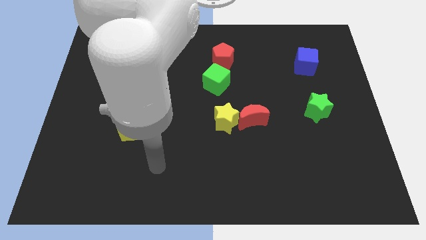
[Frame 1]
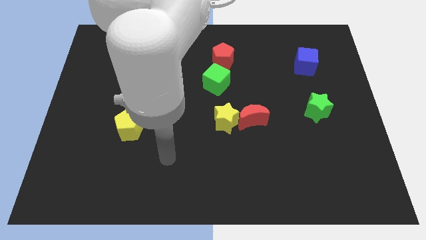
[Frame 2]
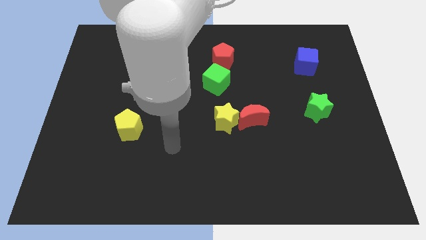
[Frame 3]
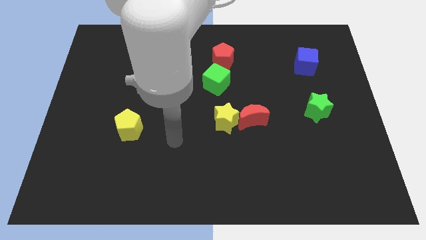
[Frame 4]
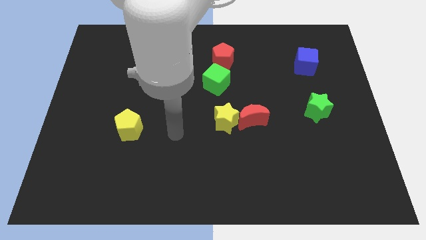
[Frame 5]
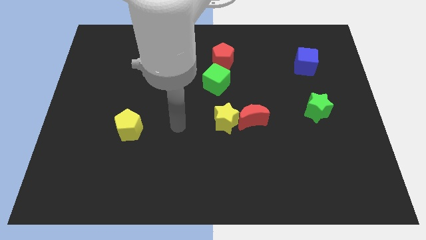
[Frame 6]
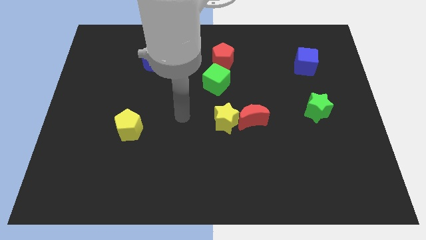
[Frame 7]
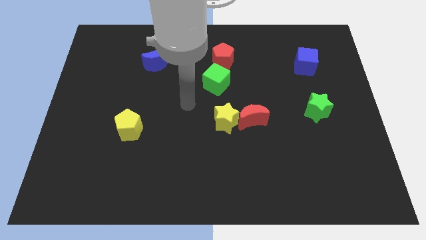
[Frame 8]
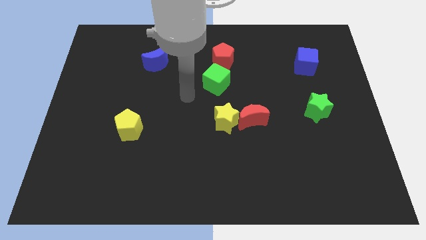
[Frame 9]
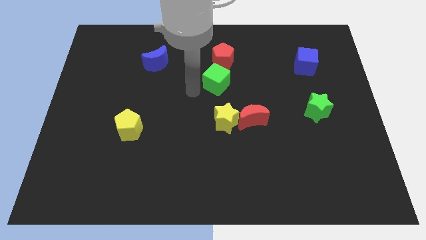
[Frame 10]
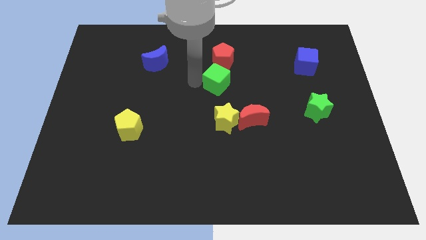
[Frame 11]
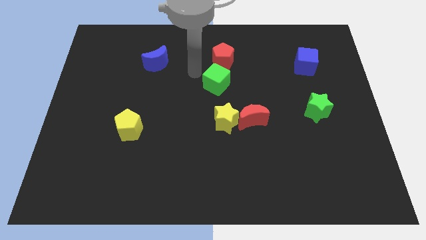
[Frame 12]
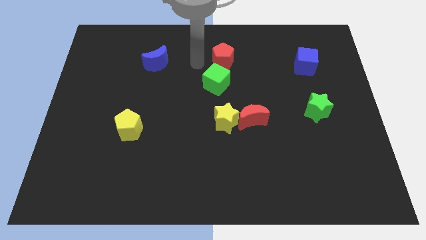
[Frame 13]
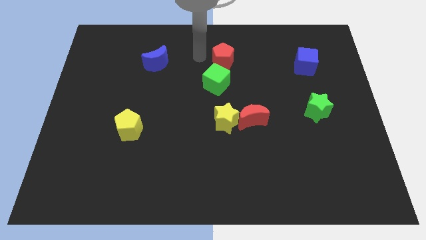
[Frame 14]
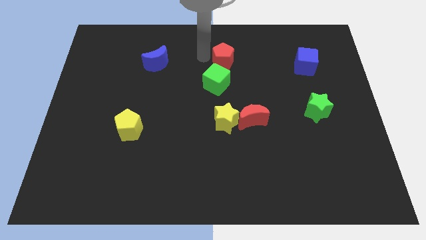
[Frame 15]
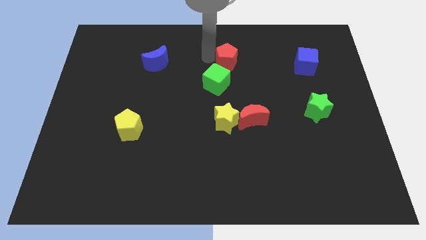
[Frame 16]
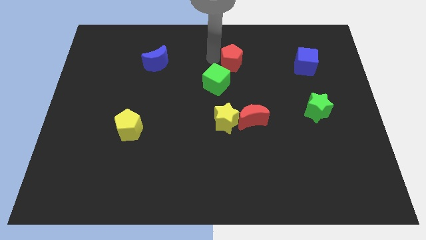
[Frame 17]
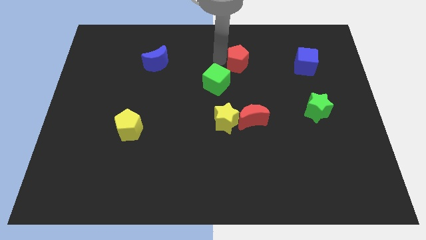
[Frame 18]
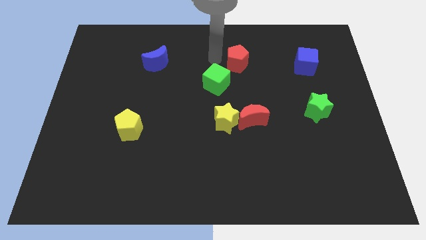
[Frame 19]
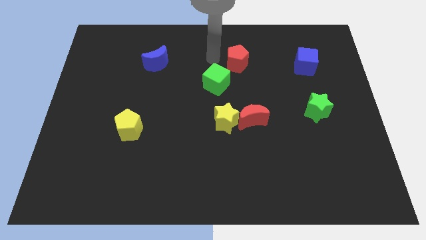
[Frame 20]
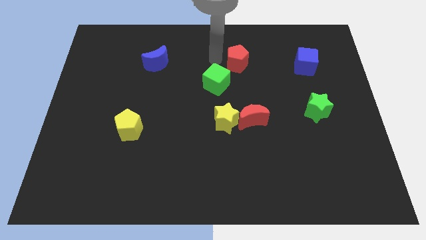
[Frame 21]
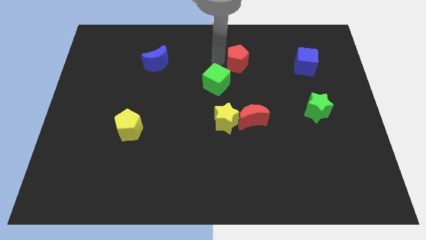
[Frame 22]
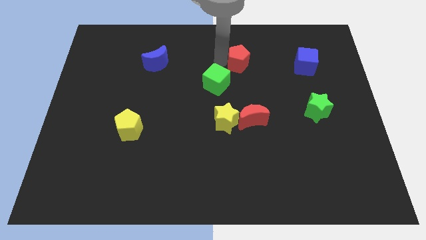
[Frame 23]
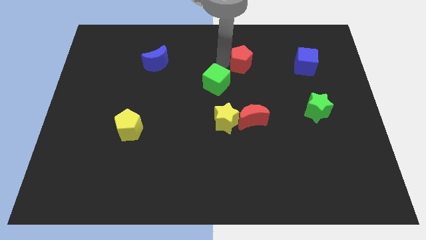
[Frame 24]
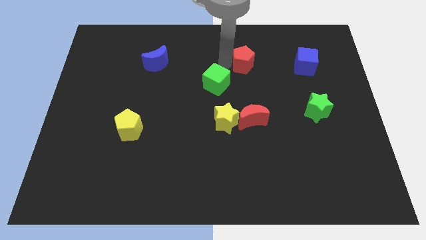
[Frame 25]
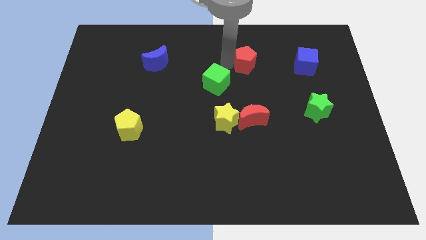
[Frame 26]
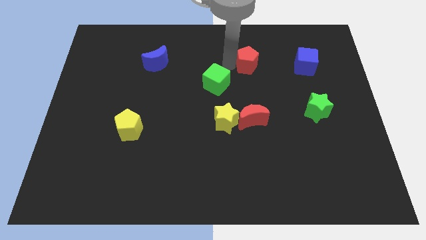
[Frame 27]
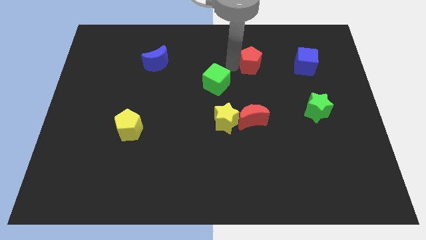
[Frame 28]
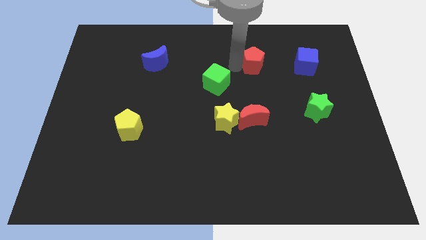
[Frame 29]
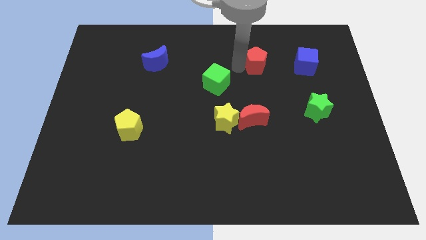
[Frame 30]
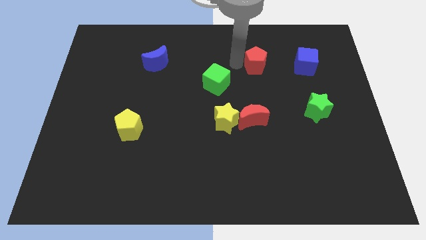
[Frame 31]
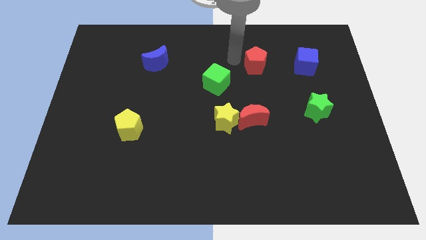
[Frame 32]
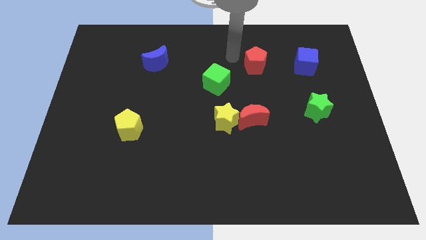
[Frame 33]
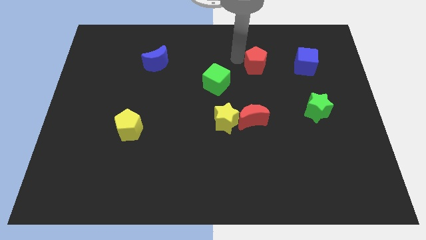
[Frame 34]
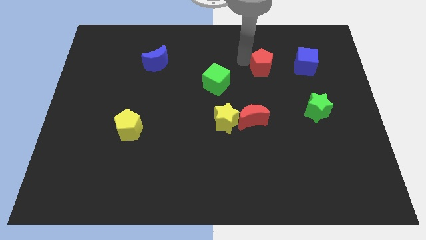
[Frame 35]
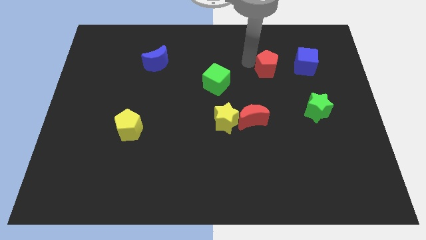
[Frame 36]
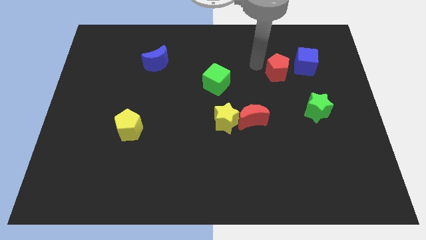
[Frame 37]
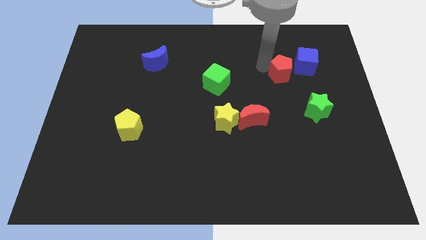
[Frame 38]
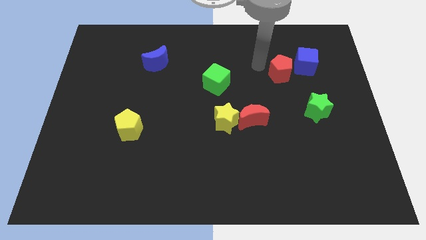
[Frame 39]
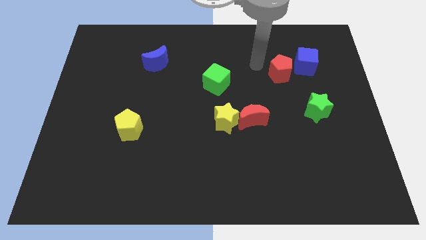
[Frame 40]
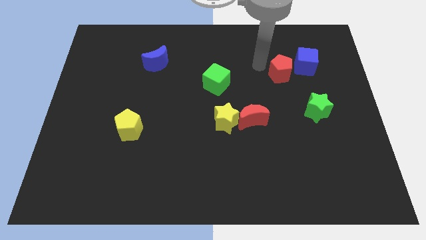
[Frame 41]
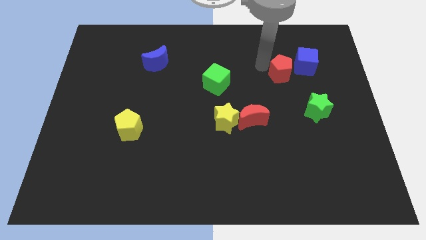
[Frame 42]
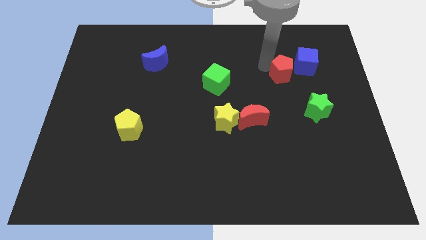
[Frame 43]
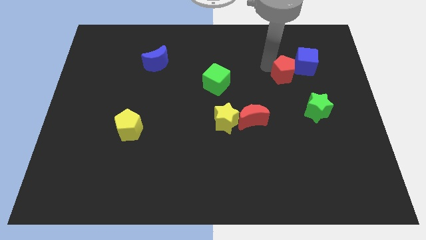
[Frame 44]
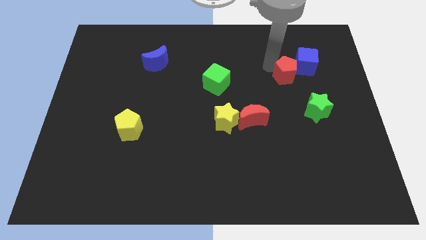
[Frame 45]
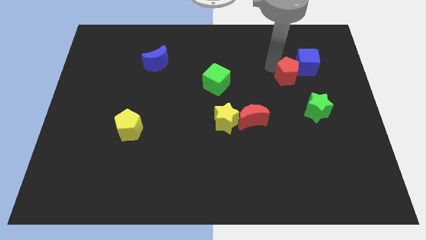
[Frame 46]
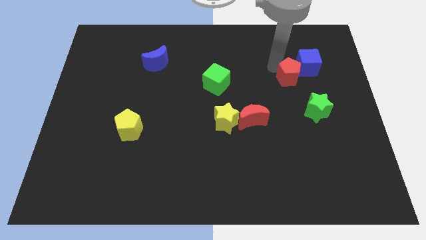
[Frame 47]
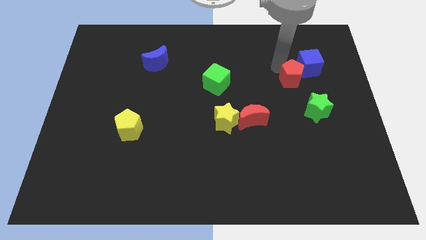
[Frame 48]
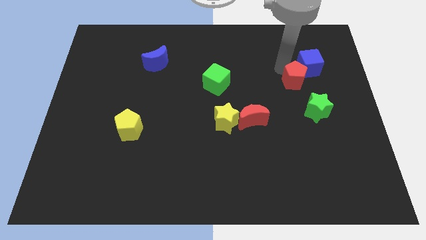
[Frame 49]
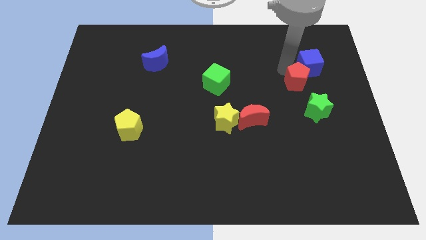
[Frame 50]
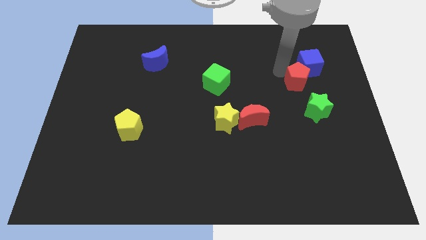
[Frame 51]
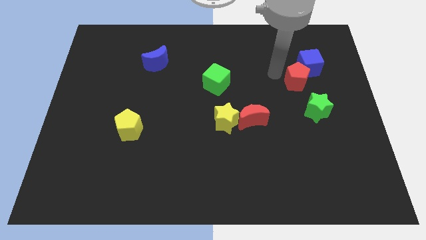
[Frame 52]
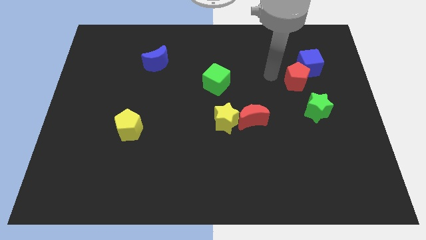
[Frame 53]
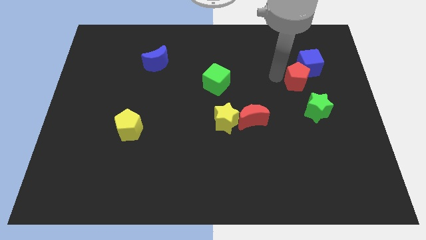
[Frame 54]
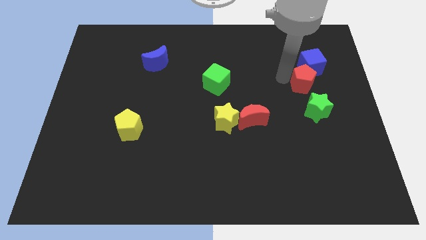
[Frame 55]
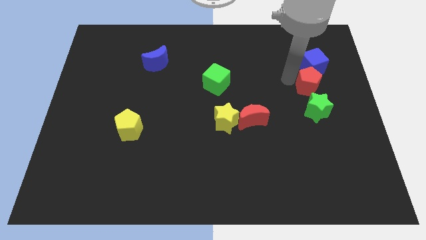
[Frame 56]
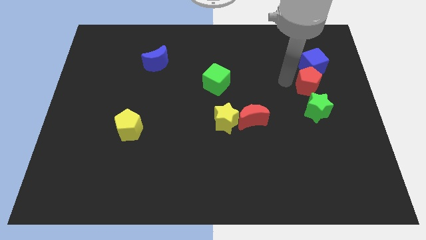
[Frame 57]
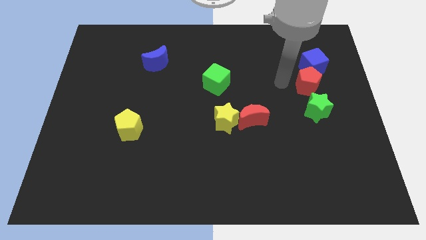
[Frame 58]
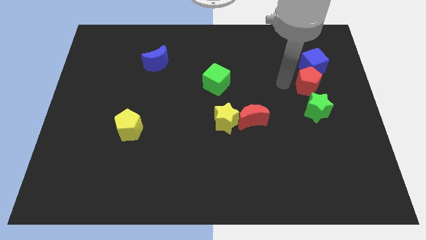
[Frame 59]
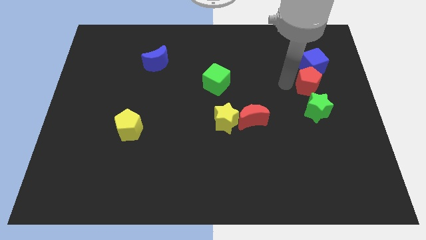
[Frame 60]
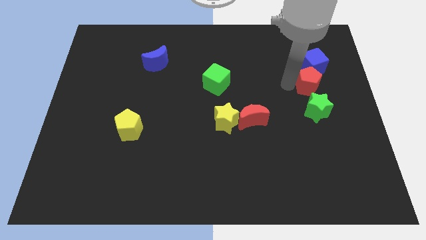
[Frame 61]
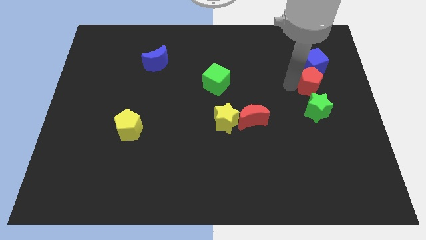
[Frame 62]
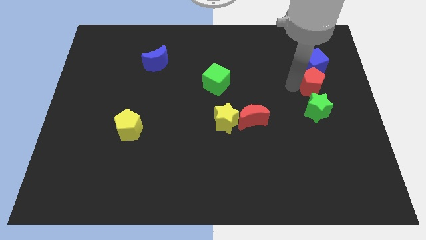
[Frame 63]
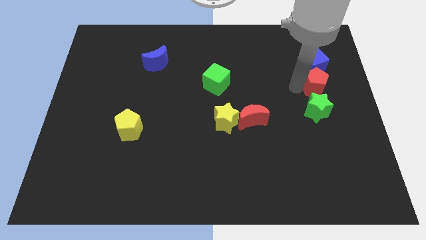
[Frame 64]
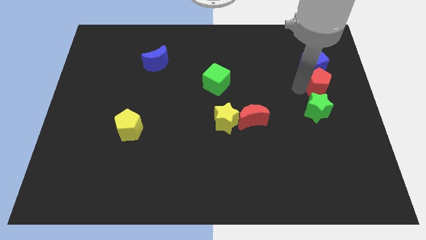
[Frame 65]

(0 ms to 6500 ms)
move the red pentagon to the center right
